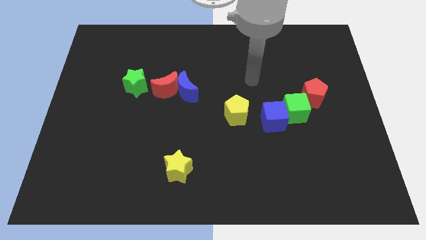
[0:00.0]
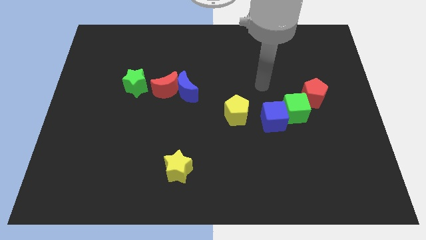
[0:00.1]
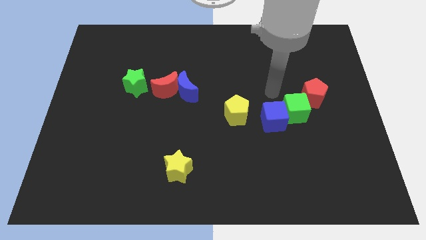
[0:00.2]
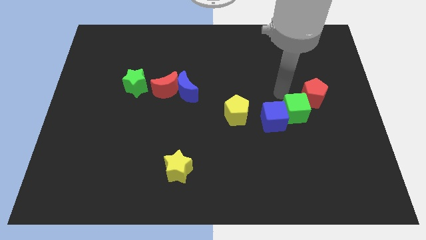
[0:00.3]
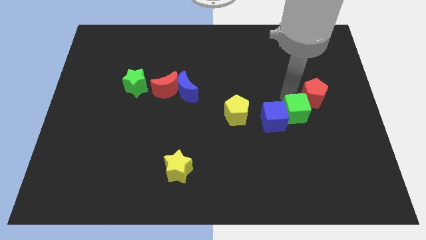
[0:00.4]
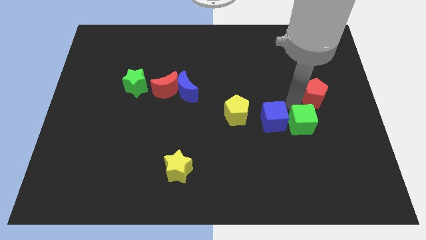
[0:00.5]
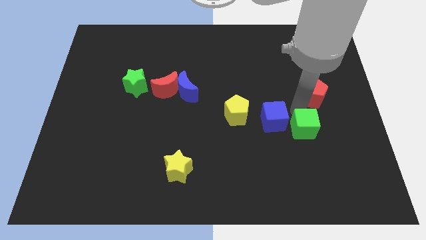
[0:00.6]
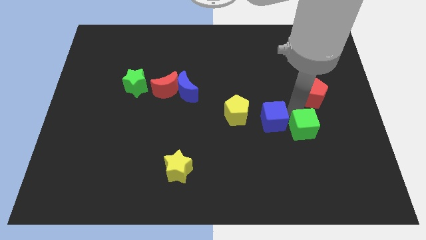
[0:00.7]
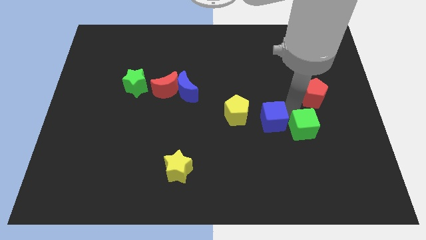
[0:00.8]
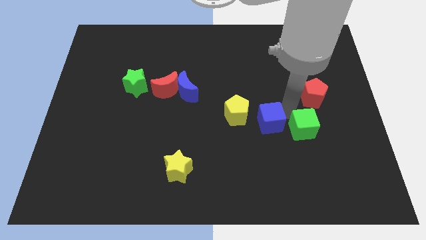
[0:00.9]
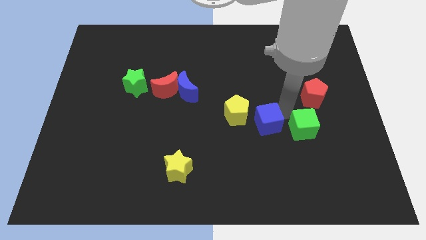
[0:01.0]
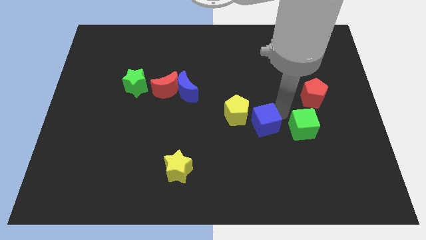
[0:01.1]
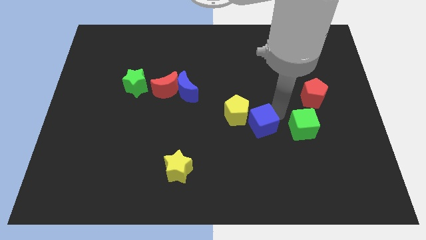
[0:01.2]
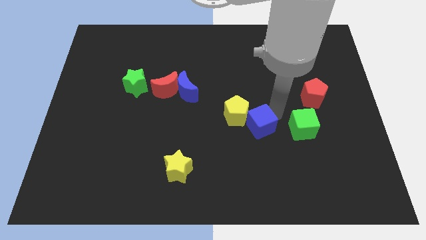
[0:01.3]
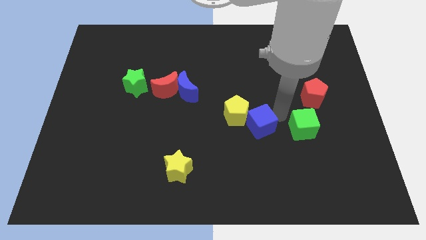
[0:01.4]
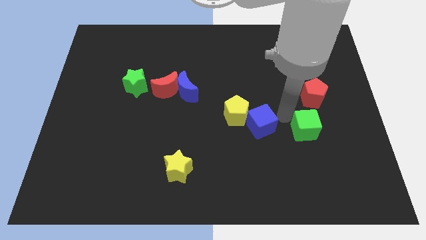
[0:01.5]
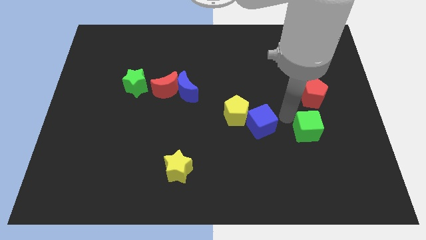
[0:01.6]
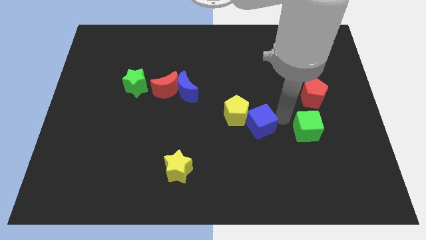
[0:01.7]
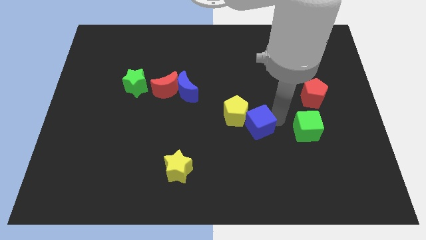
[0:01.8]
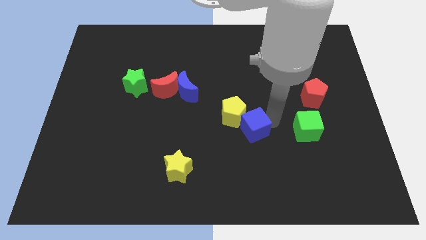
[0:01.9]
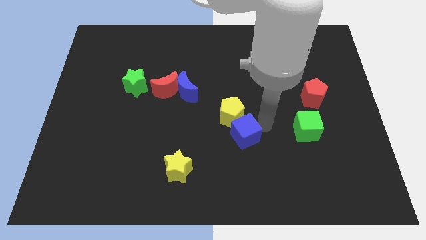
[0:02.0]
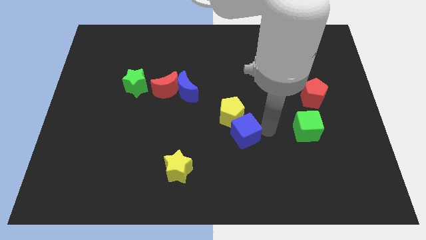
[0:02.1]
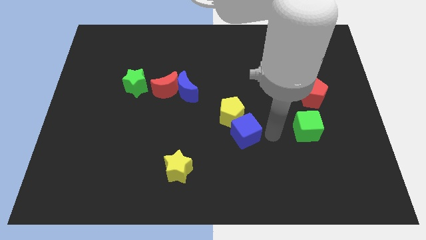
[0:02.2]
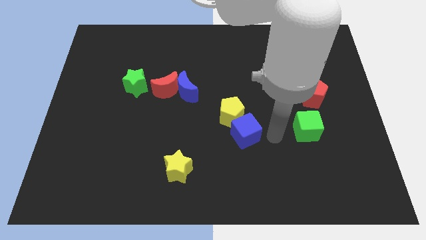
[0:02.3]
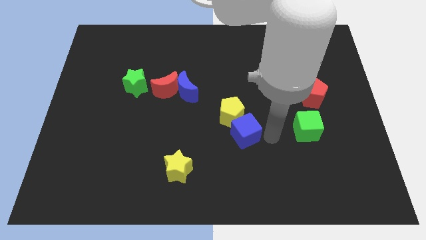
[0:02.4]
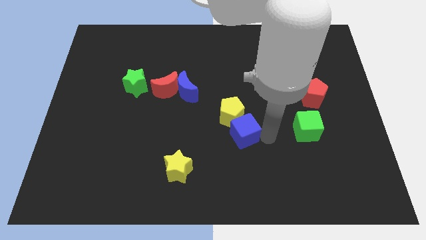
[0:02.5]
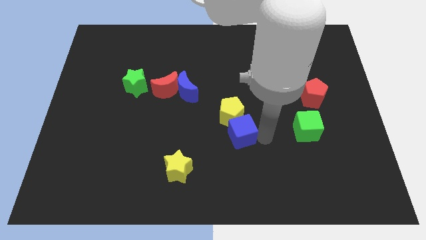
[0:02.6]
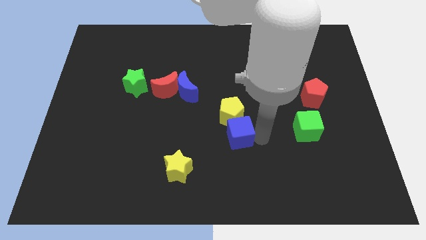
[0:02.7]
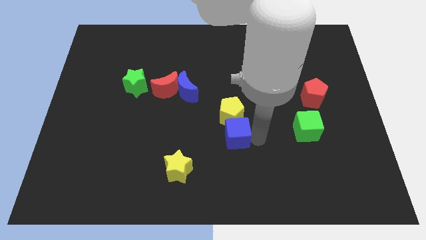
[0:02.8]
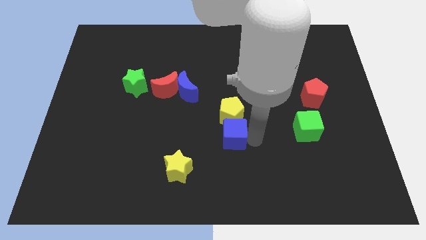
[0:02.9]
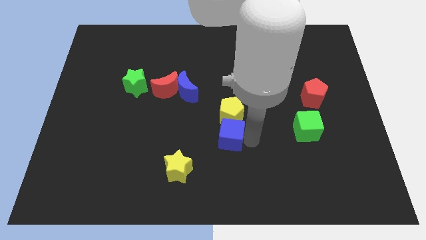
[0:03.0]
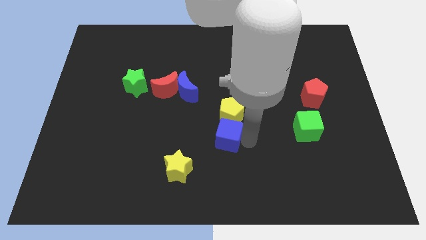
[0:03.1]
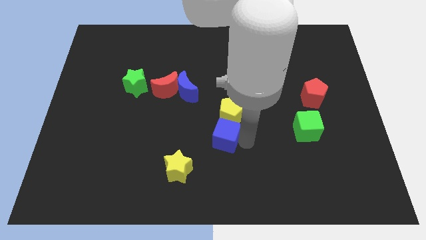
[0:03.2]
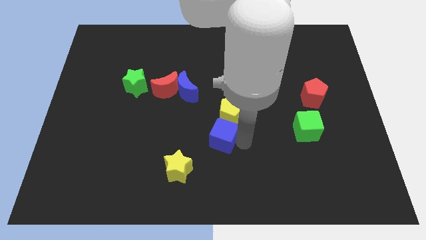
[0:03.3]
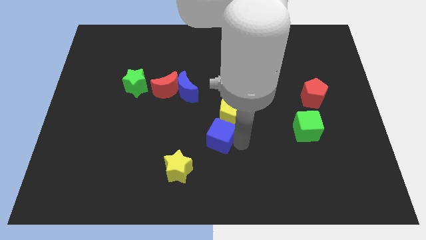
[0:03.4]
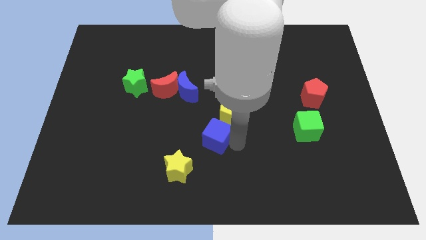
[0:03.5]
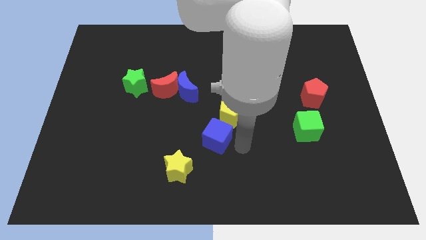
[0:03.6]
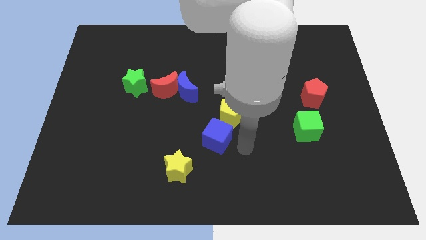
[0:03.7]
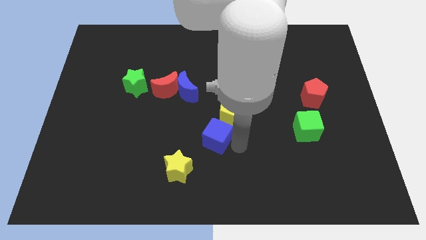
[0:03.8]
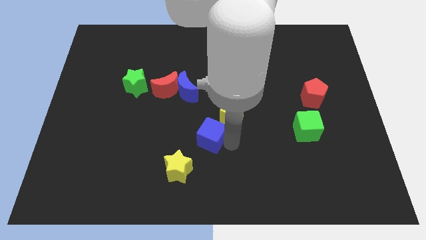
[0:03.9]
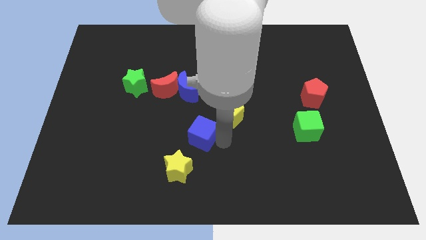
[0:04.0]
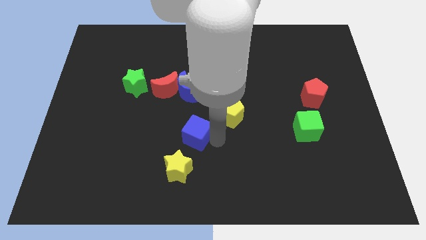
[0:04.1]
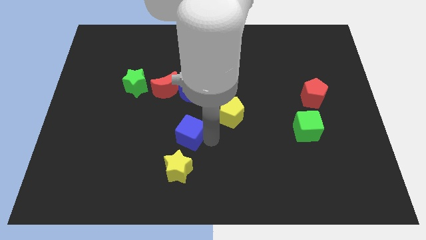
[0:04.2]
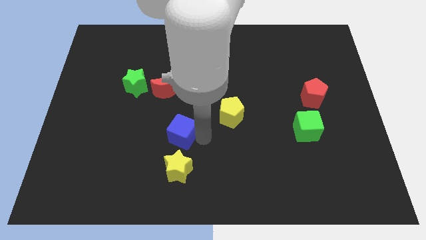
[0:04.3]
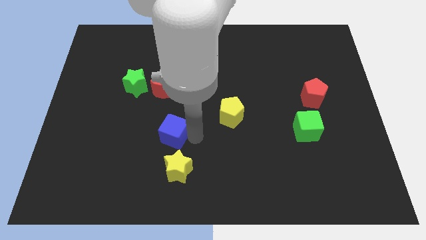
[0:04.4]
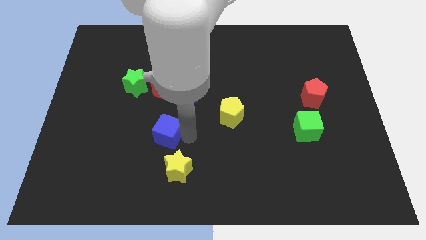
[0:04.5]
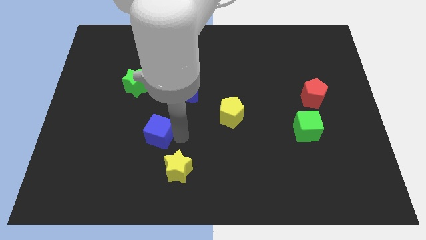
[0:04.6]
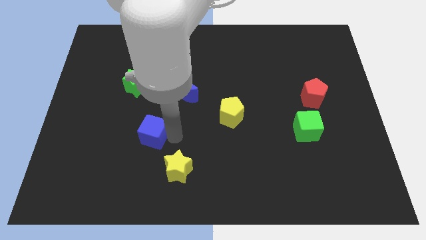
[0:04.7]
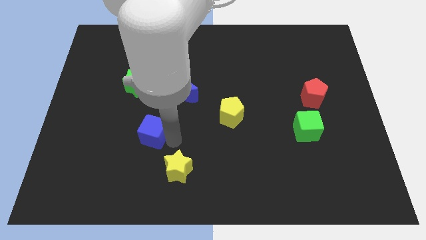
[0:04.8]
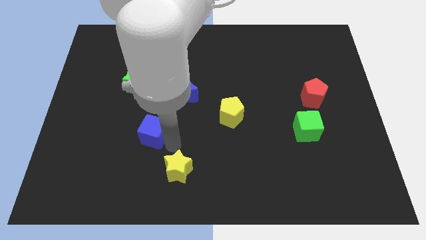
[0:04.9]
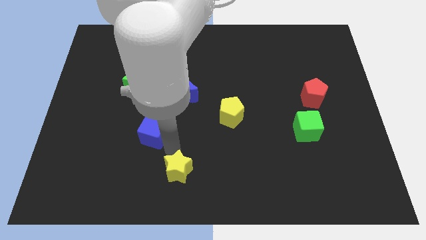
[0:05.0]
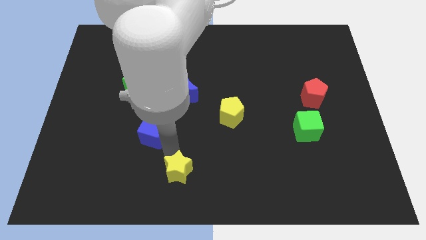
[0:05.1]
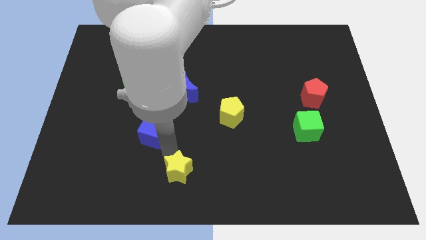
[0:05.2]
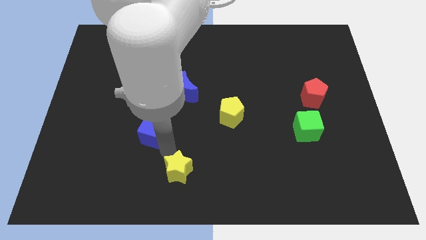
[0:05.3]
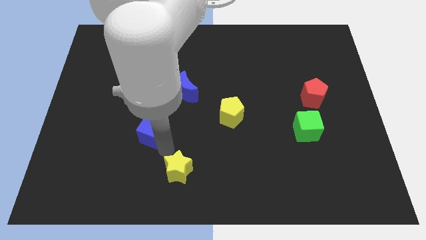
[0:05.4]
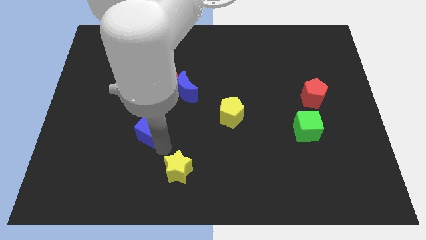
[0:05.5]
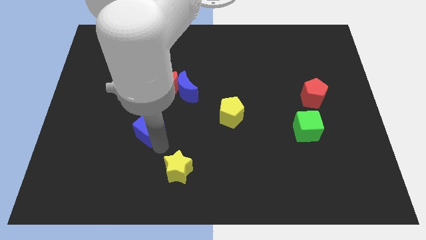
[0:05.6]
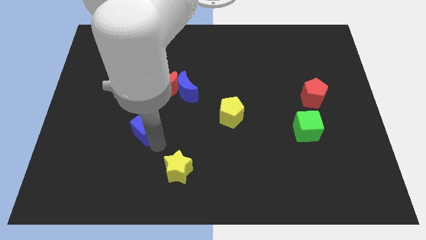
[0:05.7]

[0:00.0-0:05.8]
move the blue cube to the bottom side of the green star

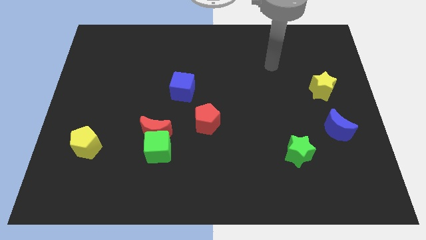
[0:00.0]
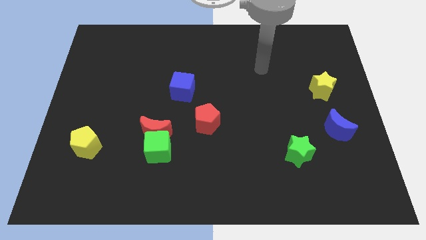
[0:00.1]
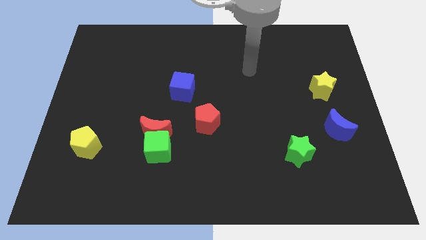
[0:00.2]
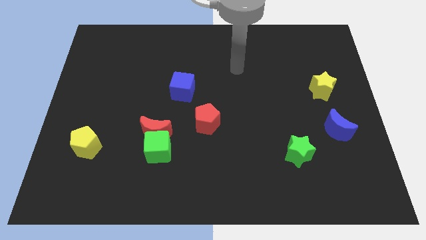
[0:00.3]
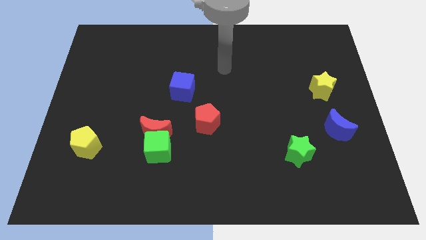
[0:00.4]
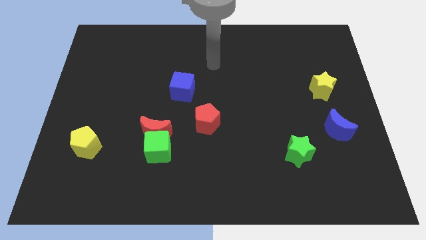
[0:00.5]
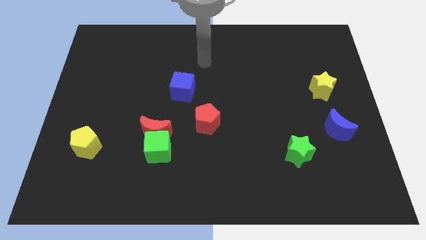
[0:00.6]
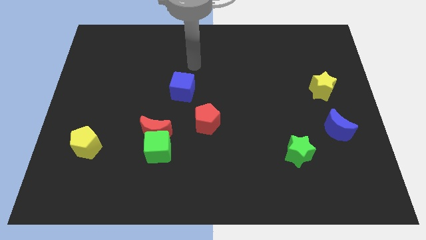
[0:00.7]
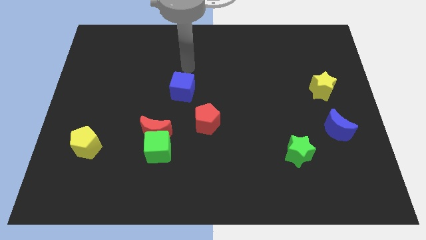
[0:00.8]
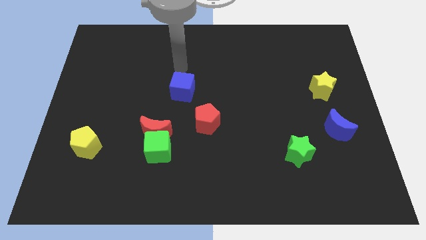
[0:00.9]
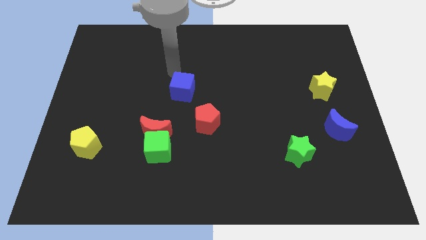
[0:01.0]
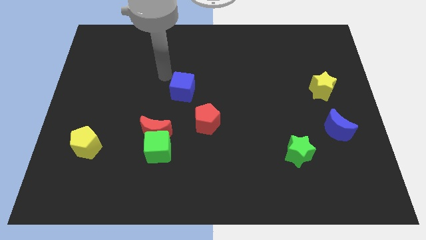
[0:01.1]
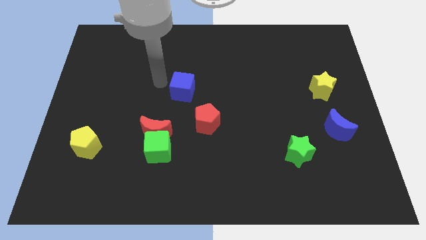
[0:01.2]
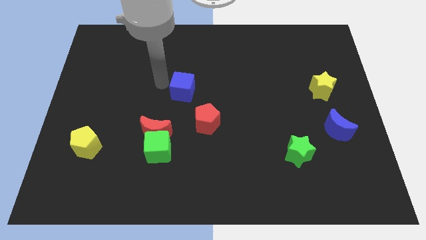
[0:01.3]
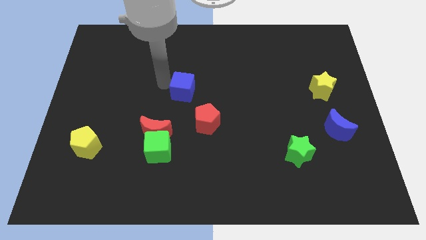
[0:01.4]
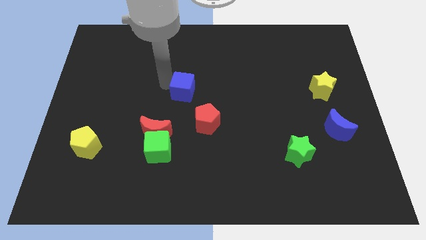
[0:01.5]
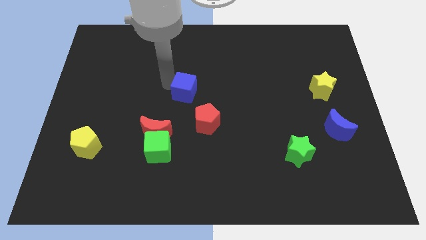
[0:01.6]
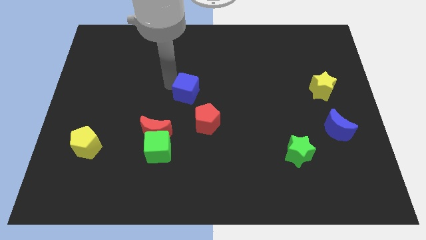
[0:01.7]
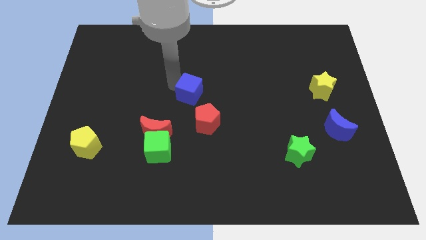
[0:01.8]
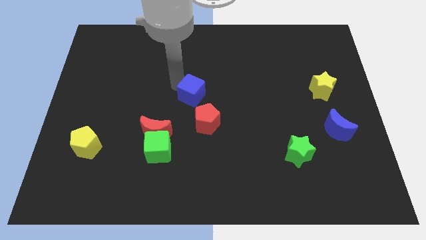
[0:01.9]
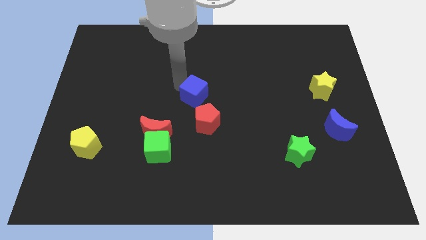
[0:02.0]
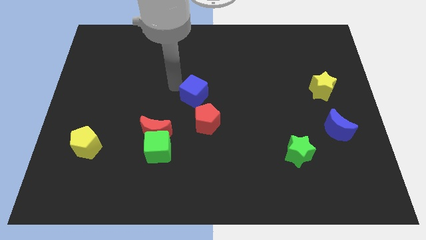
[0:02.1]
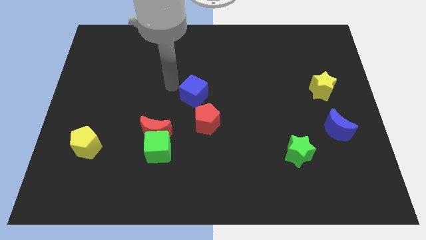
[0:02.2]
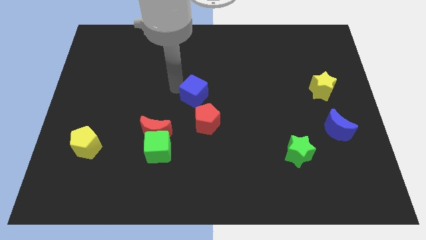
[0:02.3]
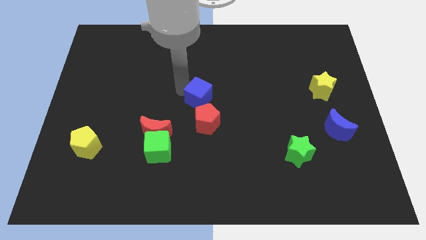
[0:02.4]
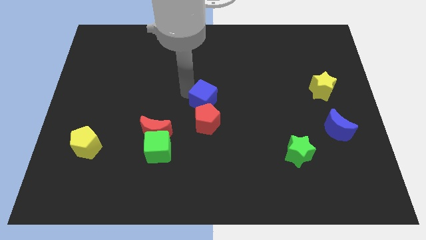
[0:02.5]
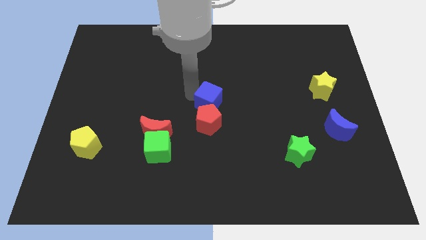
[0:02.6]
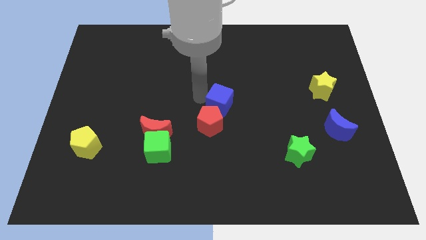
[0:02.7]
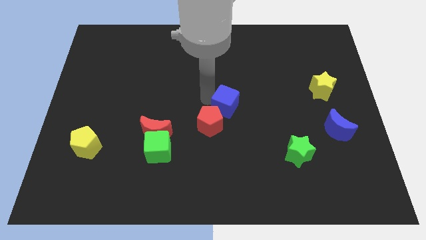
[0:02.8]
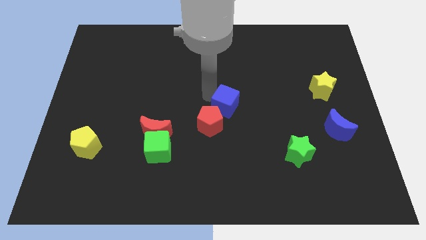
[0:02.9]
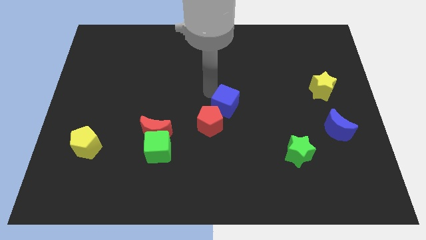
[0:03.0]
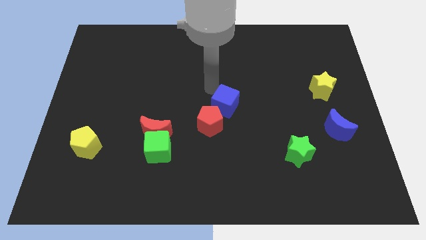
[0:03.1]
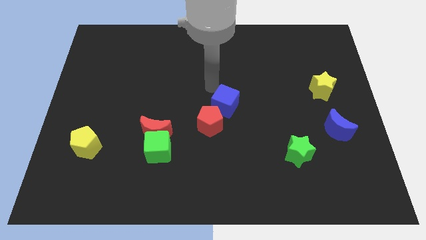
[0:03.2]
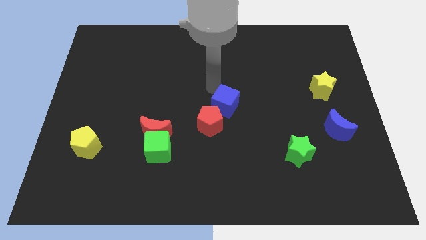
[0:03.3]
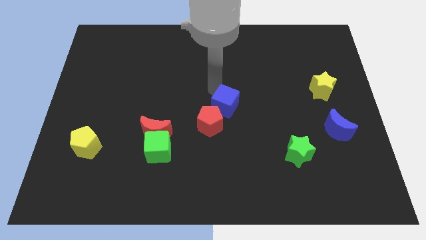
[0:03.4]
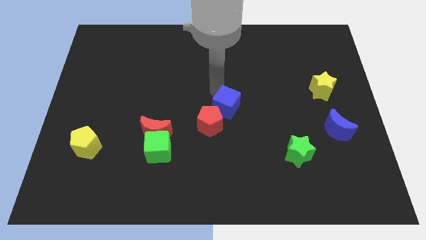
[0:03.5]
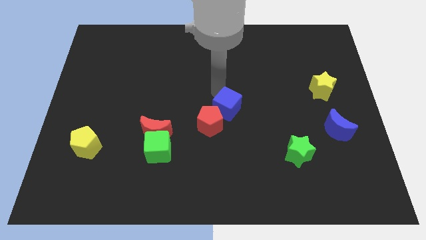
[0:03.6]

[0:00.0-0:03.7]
put the blue cube right of the red pentagon
